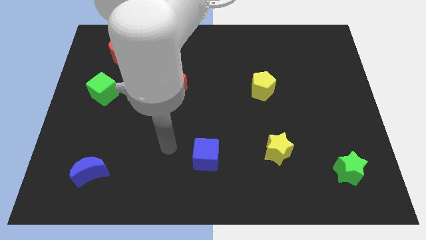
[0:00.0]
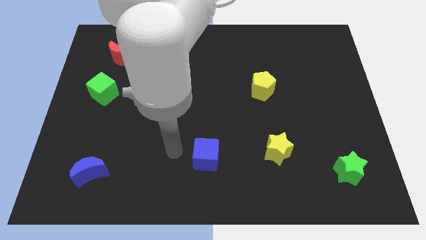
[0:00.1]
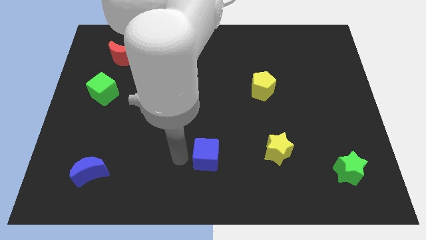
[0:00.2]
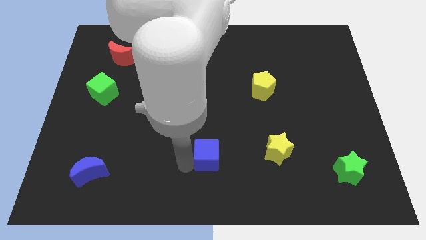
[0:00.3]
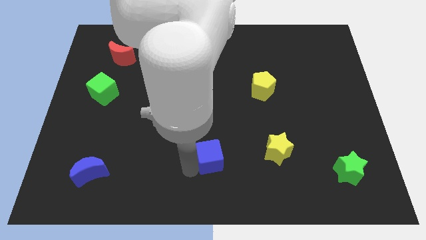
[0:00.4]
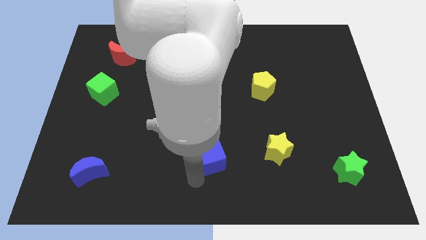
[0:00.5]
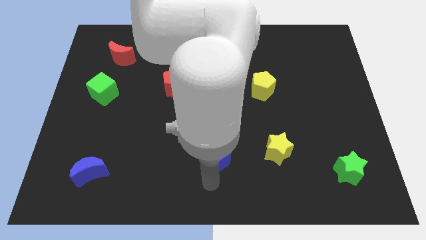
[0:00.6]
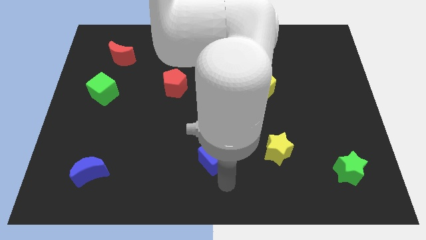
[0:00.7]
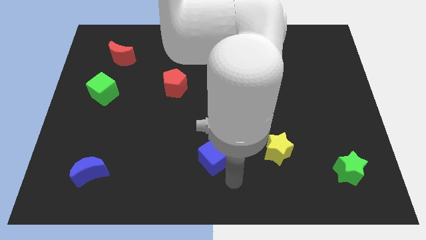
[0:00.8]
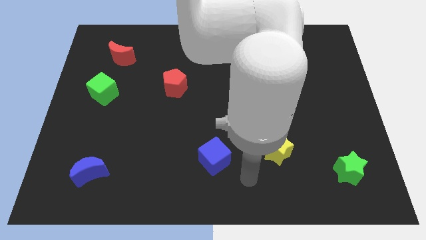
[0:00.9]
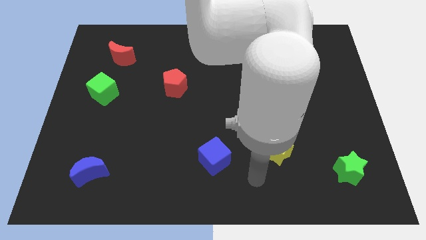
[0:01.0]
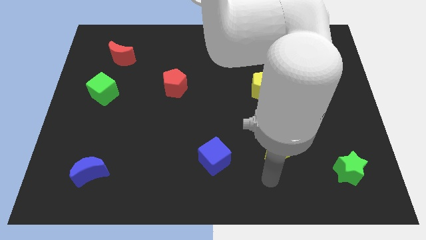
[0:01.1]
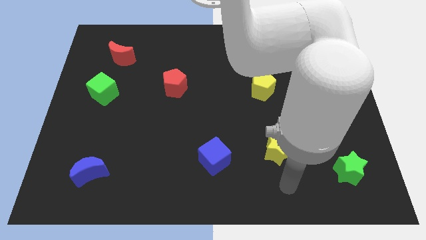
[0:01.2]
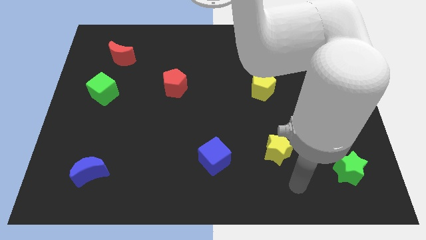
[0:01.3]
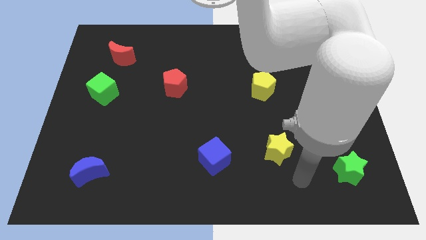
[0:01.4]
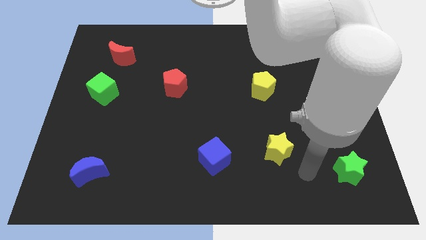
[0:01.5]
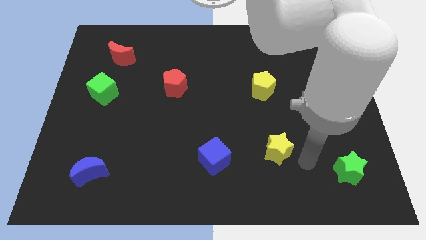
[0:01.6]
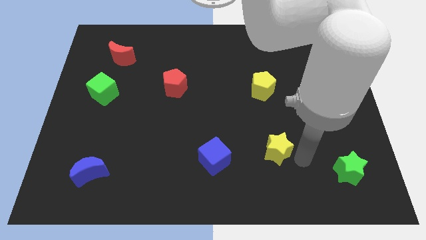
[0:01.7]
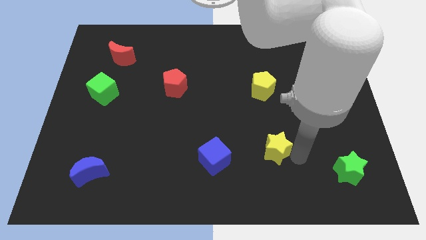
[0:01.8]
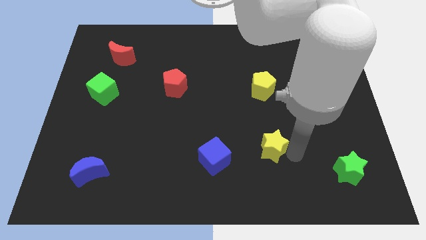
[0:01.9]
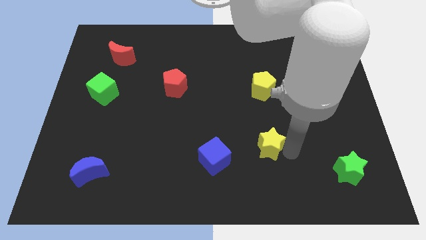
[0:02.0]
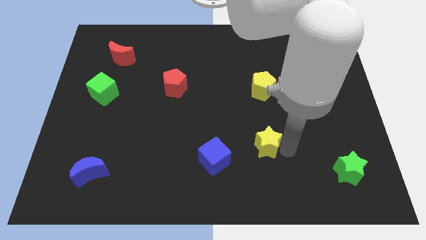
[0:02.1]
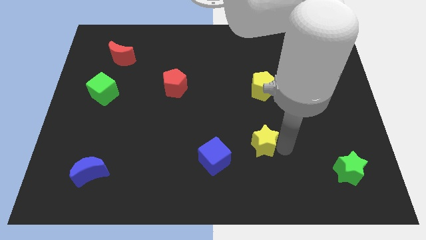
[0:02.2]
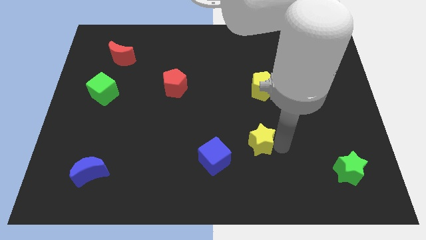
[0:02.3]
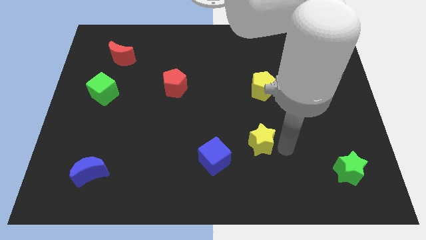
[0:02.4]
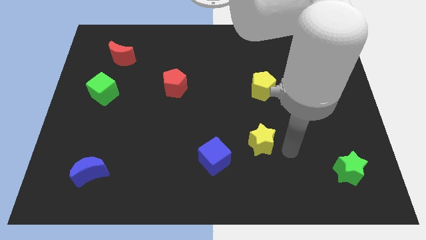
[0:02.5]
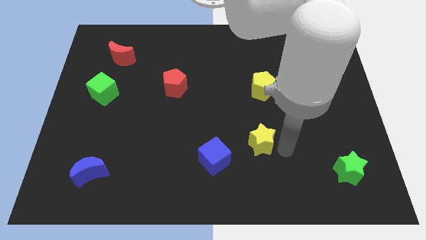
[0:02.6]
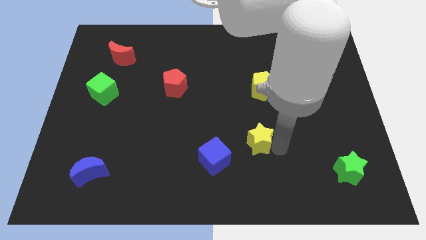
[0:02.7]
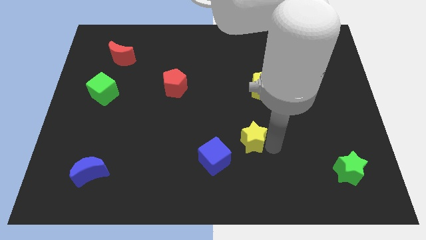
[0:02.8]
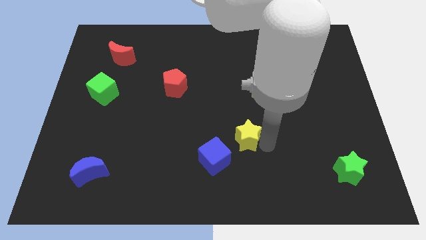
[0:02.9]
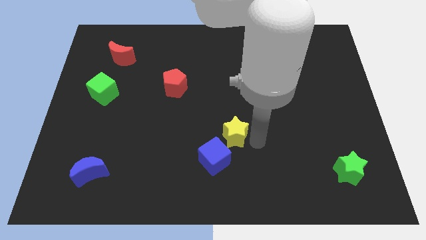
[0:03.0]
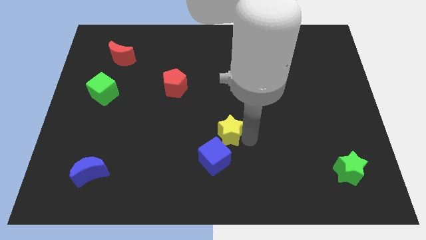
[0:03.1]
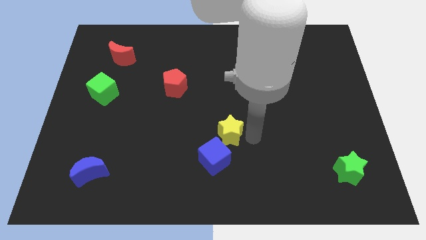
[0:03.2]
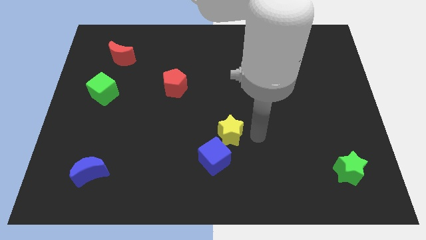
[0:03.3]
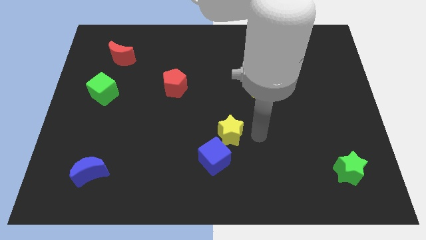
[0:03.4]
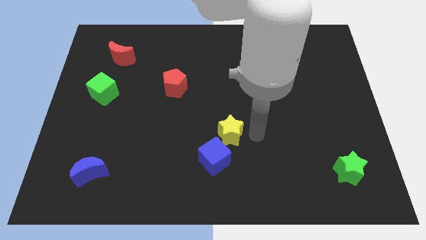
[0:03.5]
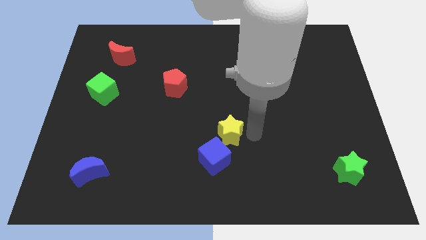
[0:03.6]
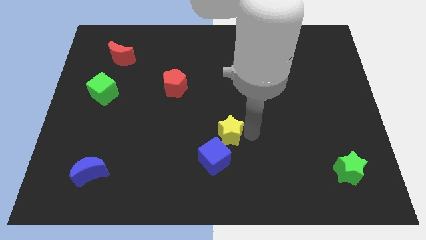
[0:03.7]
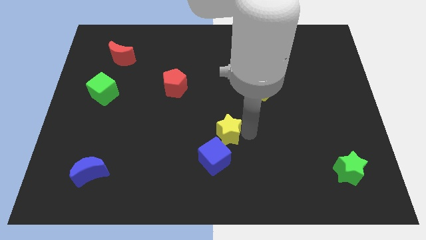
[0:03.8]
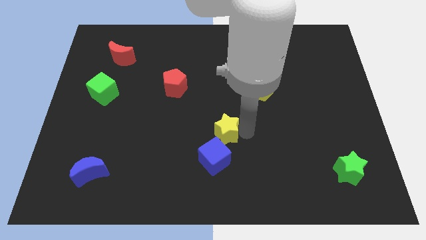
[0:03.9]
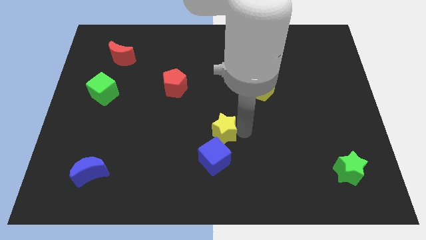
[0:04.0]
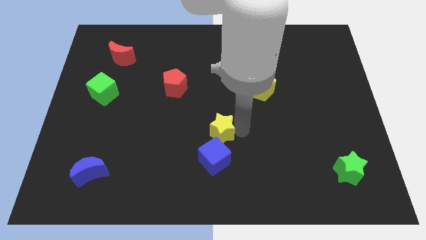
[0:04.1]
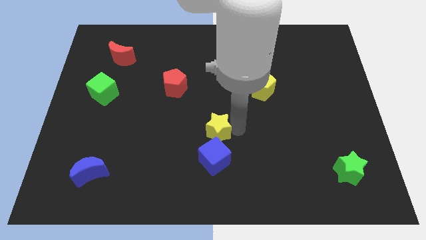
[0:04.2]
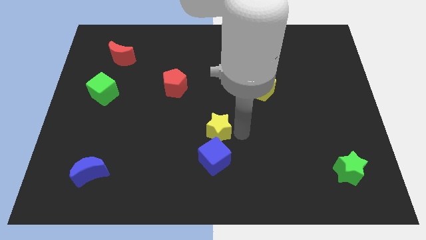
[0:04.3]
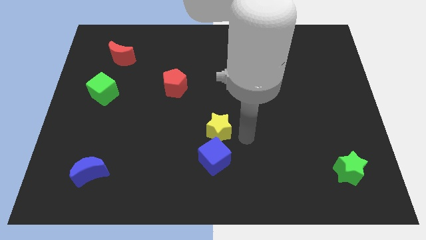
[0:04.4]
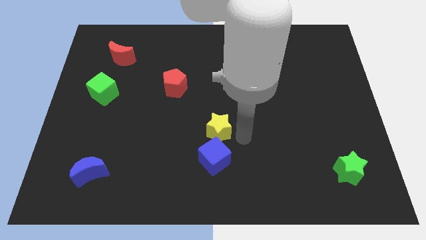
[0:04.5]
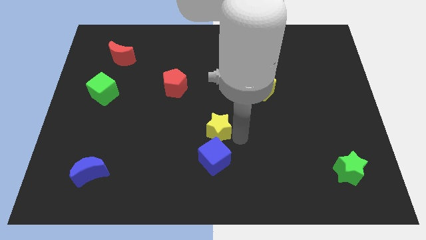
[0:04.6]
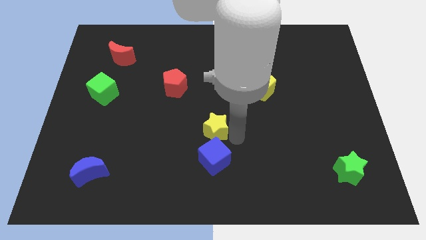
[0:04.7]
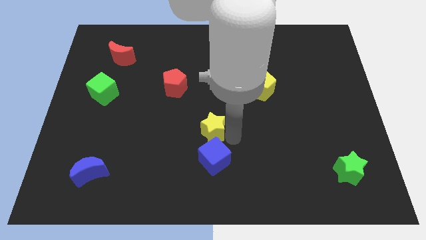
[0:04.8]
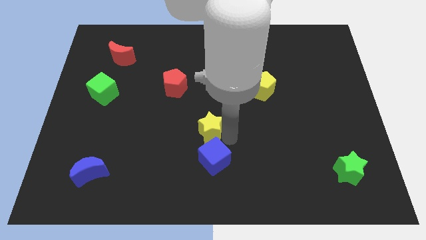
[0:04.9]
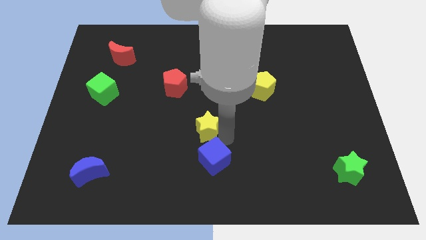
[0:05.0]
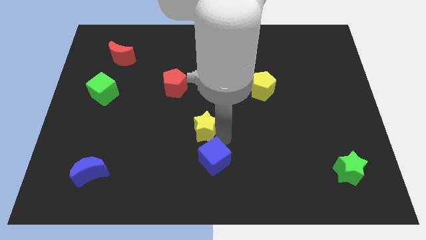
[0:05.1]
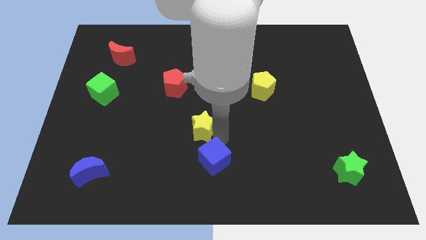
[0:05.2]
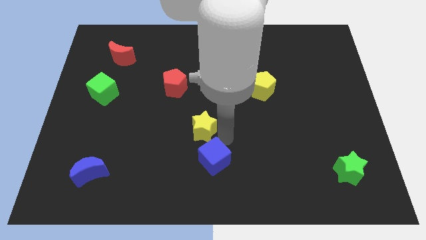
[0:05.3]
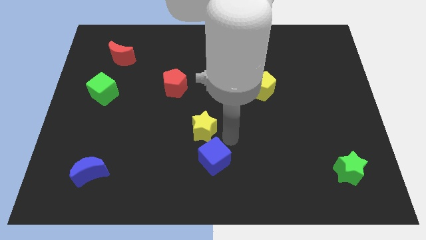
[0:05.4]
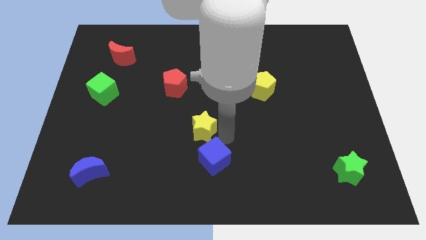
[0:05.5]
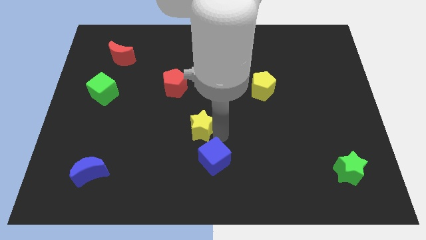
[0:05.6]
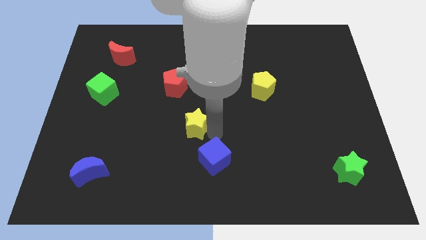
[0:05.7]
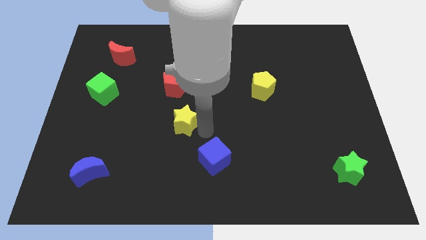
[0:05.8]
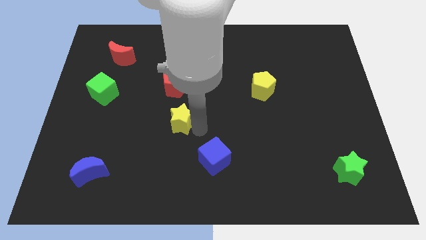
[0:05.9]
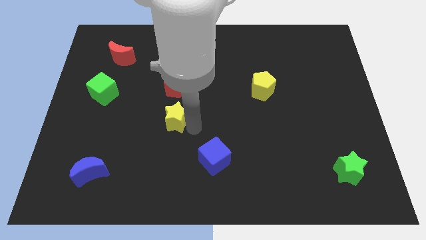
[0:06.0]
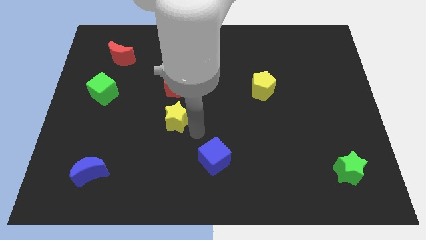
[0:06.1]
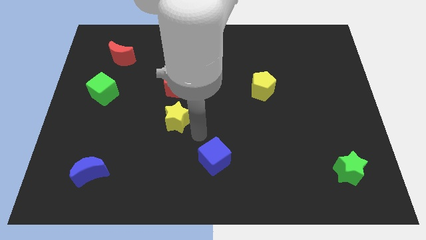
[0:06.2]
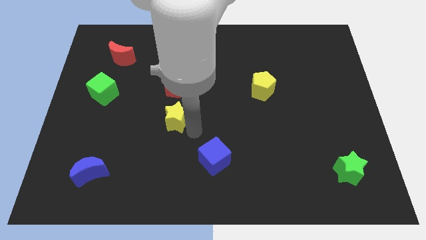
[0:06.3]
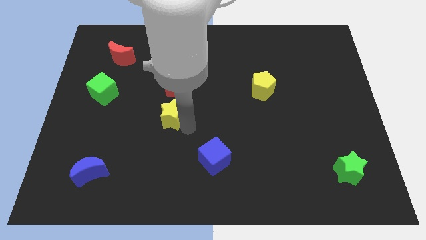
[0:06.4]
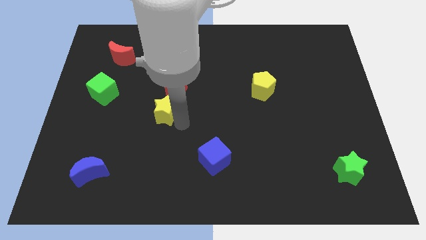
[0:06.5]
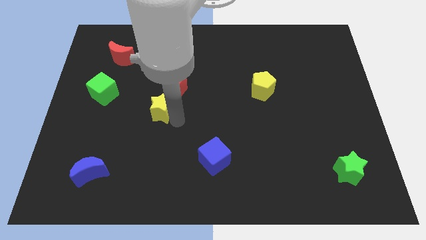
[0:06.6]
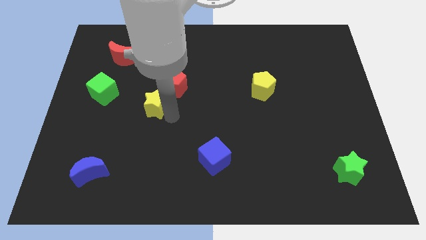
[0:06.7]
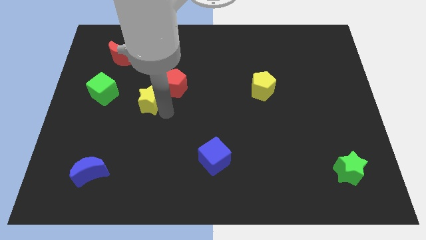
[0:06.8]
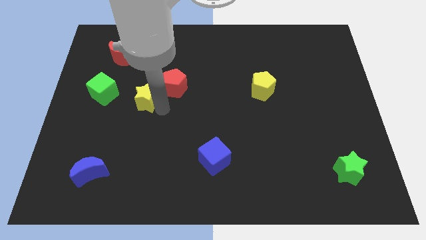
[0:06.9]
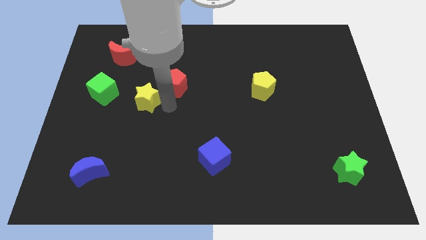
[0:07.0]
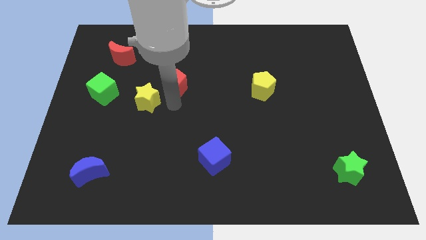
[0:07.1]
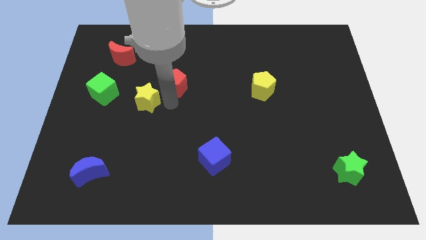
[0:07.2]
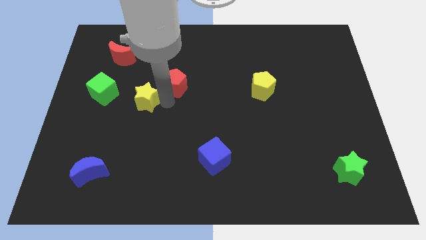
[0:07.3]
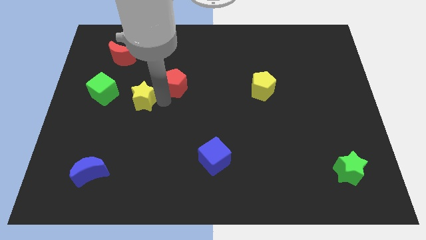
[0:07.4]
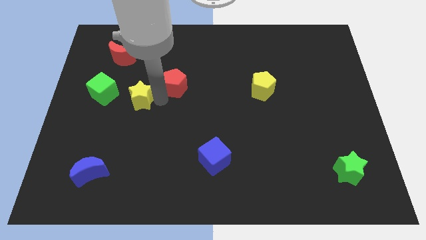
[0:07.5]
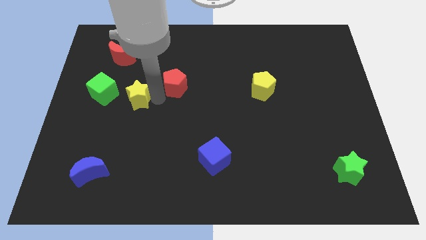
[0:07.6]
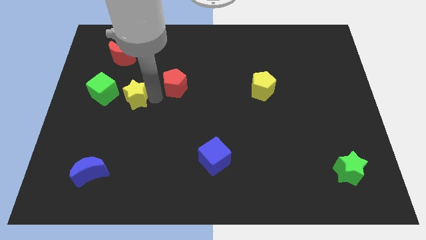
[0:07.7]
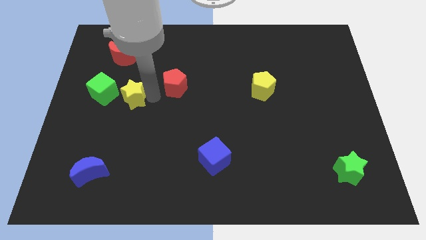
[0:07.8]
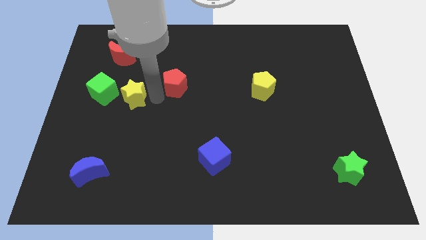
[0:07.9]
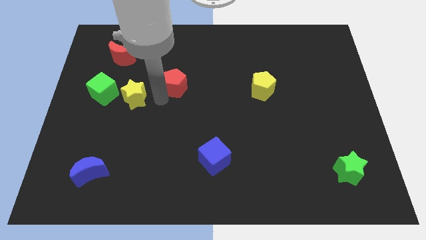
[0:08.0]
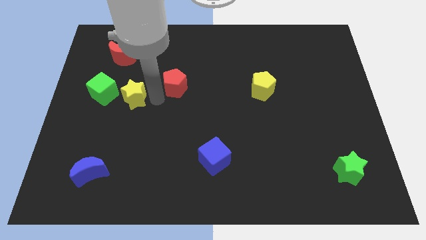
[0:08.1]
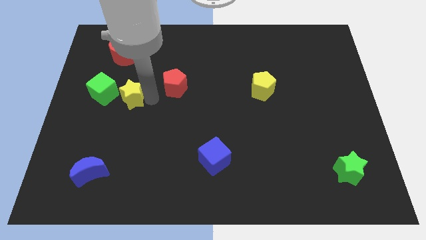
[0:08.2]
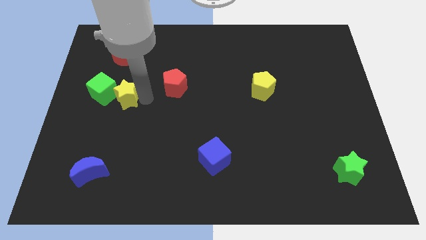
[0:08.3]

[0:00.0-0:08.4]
put the yellow star close to the green cube
